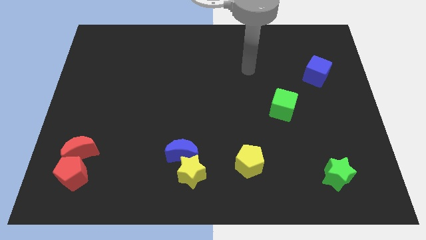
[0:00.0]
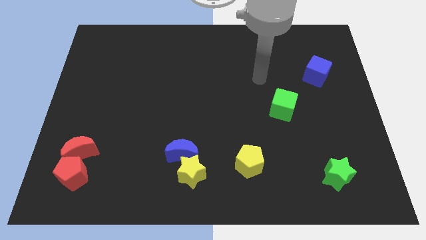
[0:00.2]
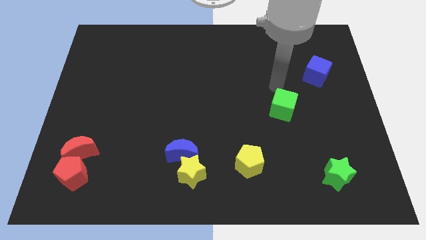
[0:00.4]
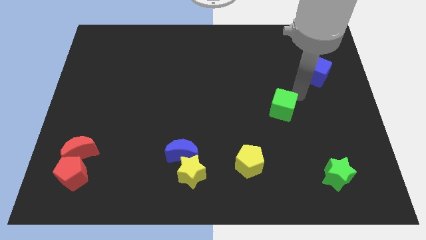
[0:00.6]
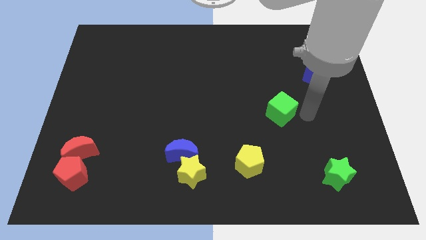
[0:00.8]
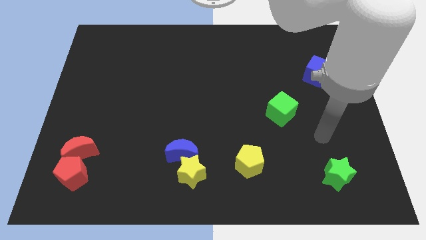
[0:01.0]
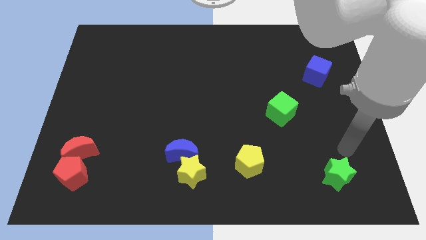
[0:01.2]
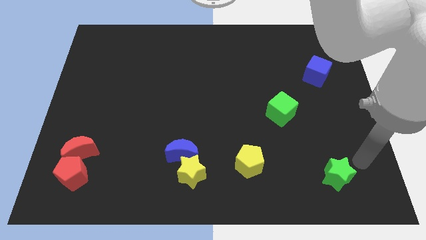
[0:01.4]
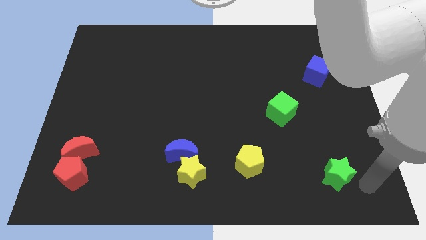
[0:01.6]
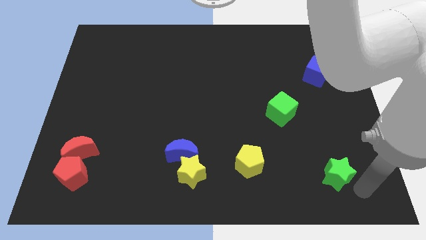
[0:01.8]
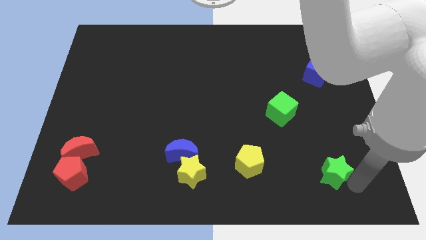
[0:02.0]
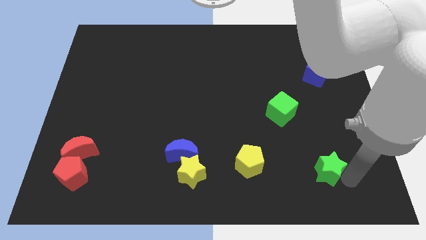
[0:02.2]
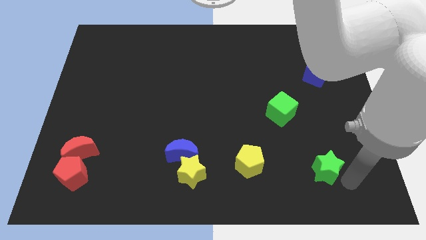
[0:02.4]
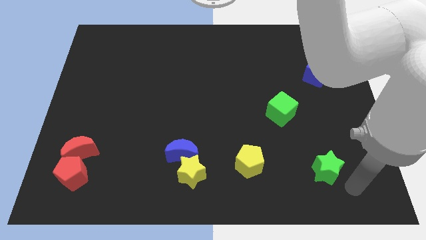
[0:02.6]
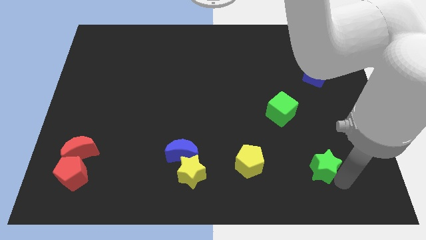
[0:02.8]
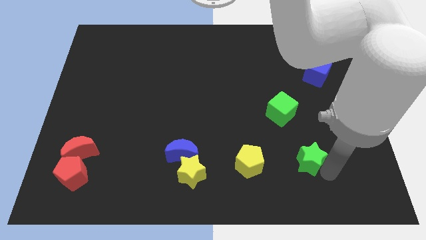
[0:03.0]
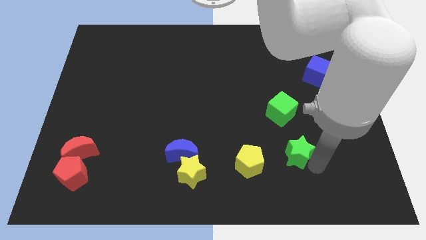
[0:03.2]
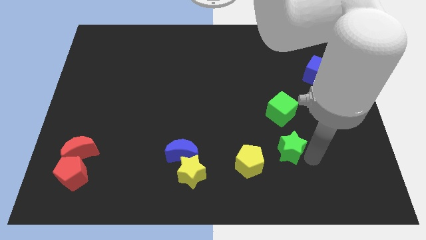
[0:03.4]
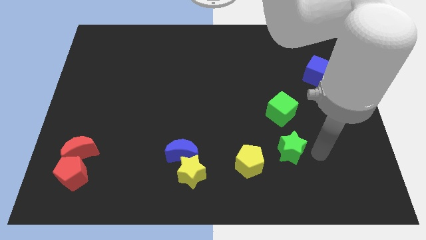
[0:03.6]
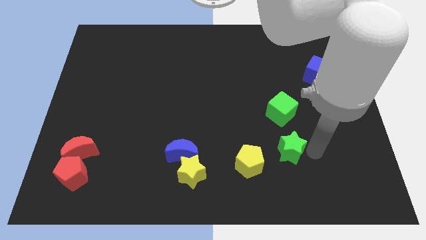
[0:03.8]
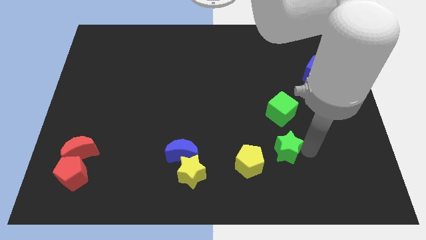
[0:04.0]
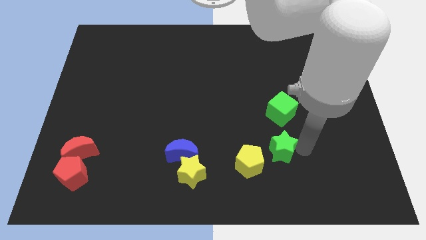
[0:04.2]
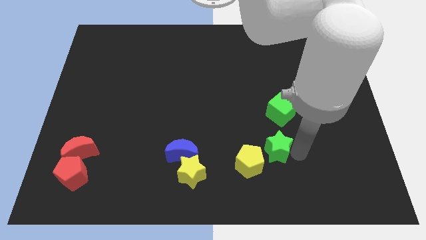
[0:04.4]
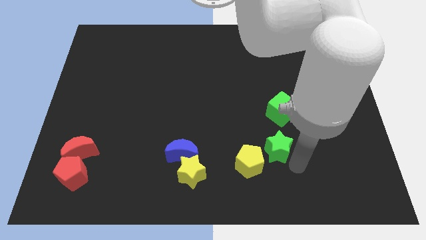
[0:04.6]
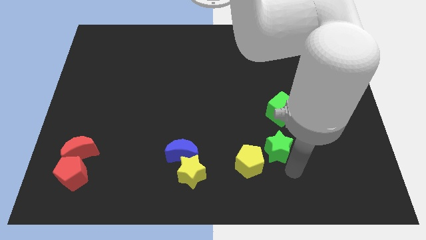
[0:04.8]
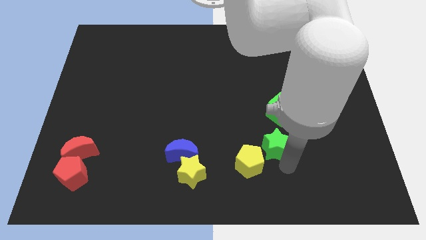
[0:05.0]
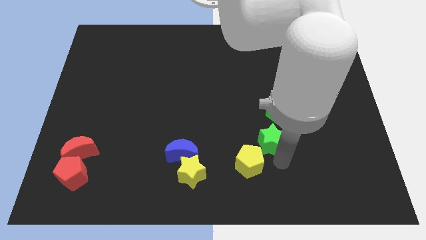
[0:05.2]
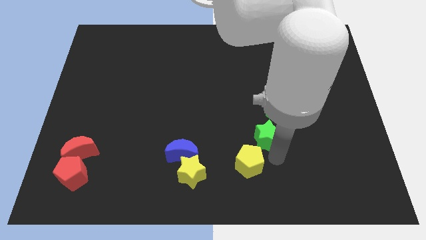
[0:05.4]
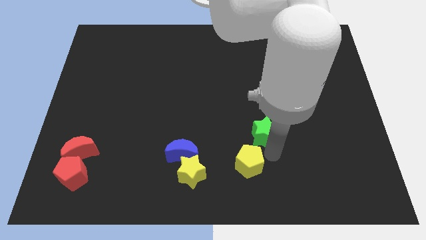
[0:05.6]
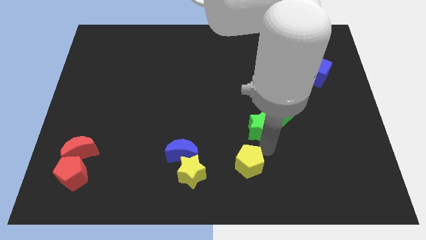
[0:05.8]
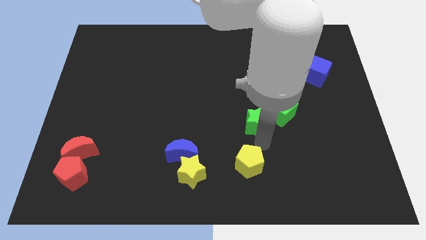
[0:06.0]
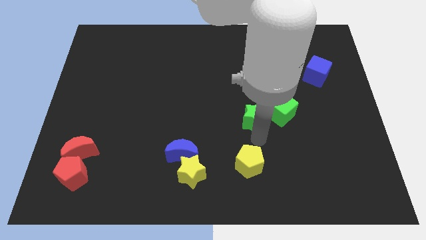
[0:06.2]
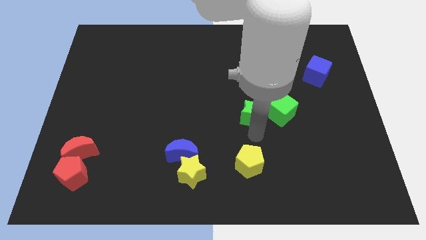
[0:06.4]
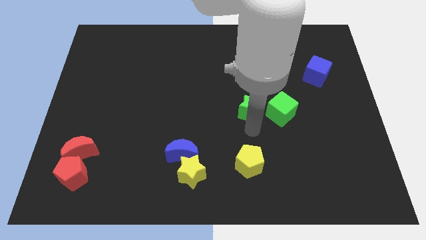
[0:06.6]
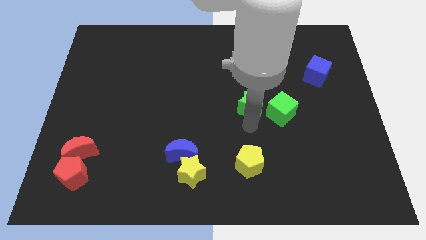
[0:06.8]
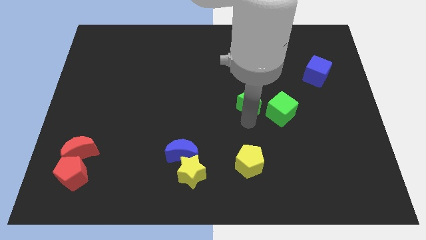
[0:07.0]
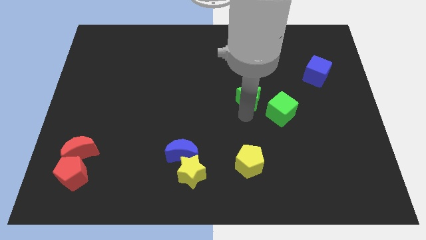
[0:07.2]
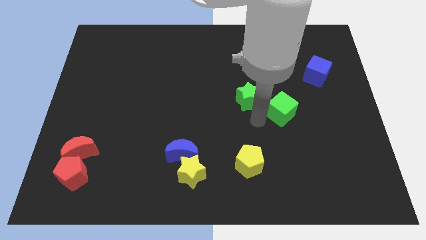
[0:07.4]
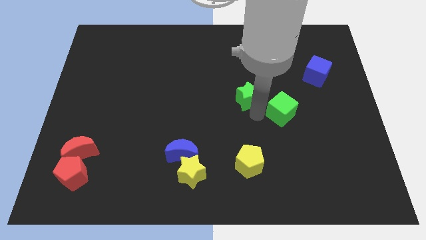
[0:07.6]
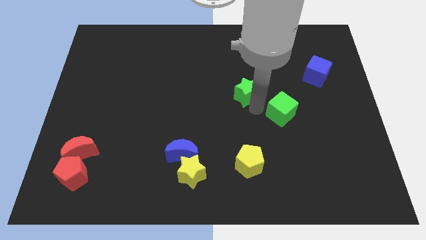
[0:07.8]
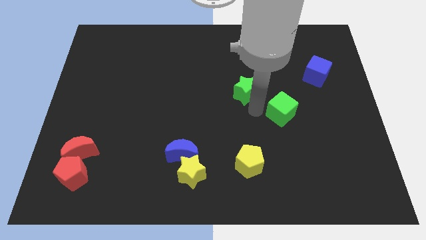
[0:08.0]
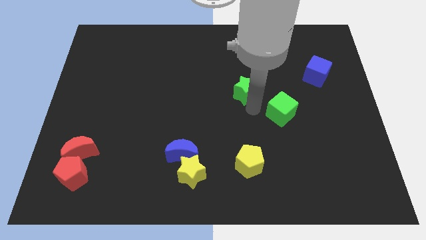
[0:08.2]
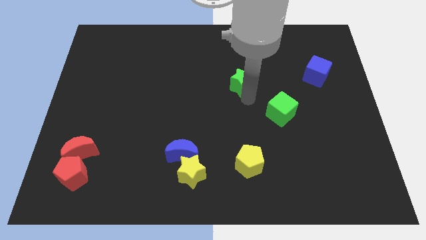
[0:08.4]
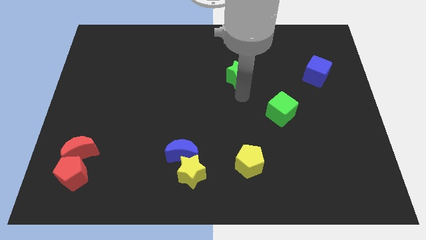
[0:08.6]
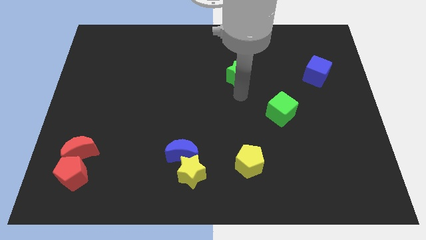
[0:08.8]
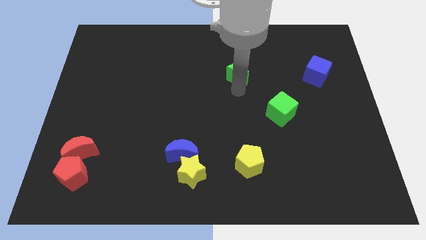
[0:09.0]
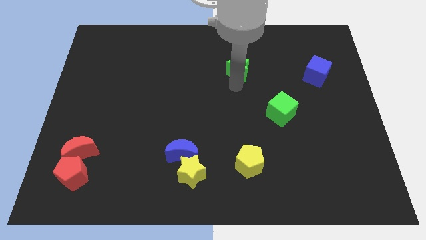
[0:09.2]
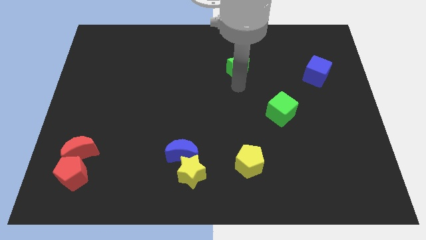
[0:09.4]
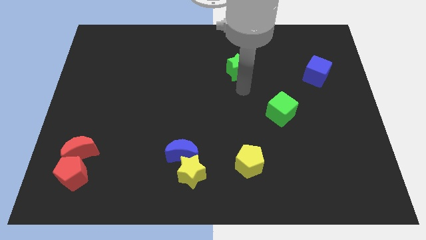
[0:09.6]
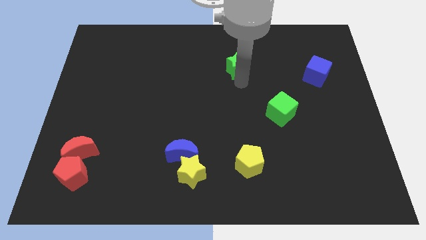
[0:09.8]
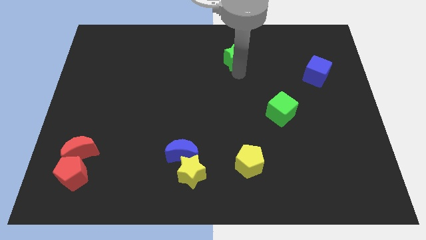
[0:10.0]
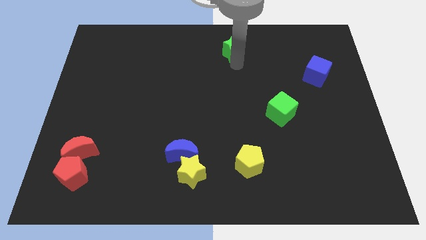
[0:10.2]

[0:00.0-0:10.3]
push the green star to the towards your base

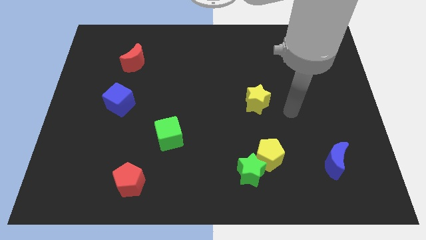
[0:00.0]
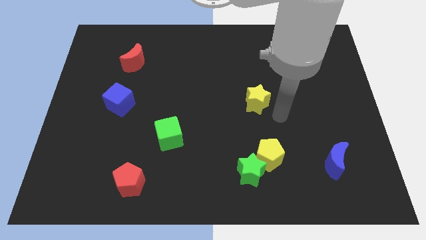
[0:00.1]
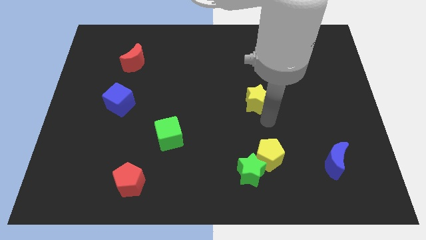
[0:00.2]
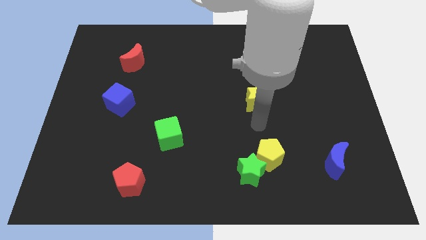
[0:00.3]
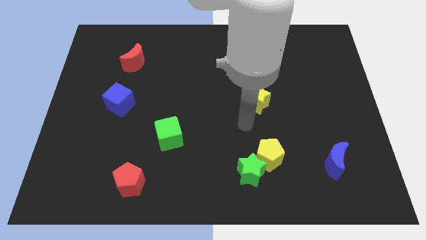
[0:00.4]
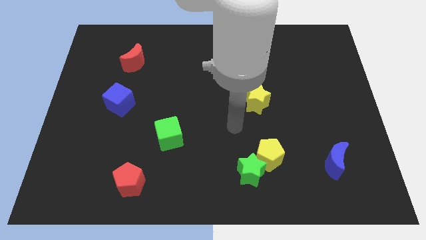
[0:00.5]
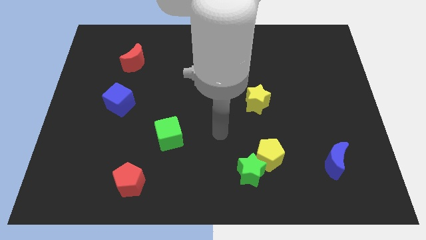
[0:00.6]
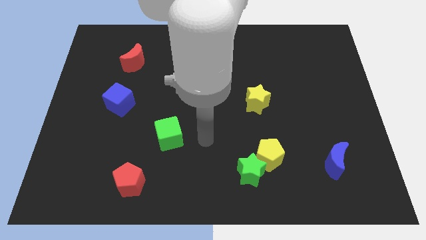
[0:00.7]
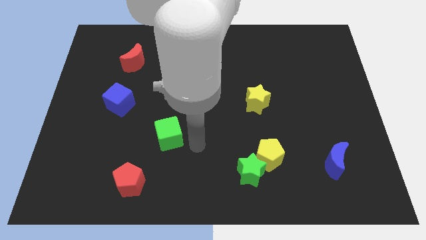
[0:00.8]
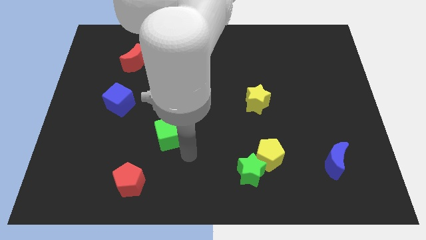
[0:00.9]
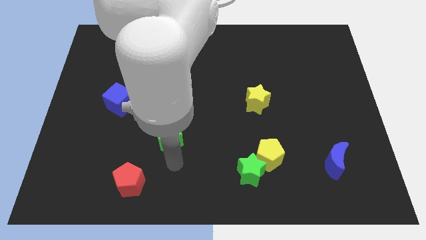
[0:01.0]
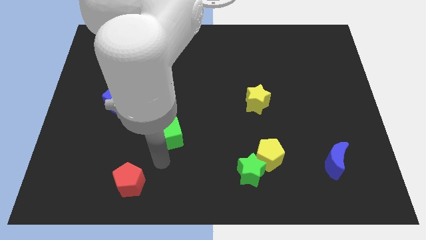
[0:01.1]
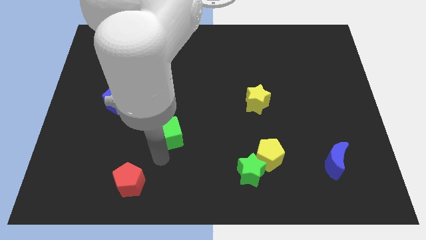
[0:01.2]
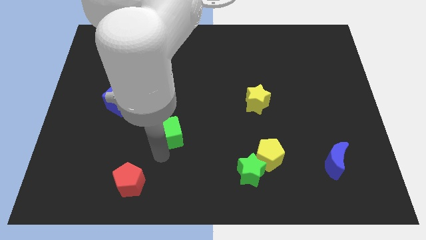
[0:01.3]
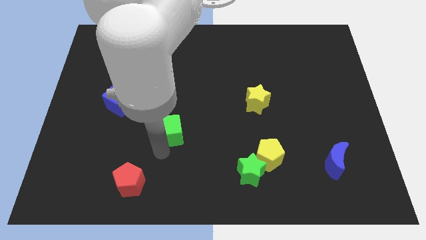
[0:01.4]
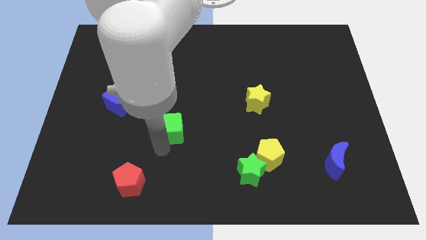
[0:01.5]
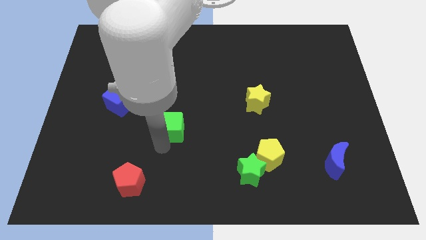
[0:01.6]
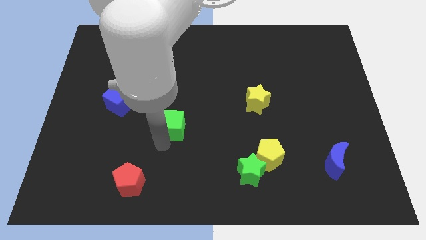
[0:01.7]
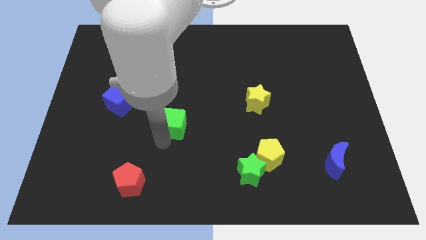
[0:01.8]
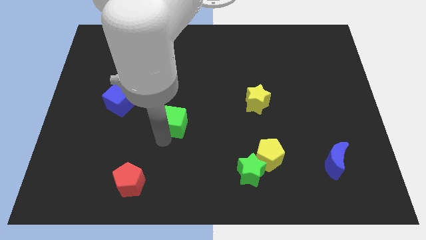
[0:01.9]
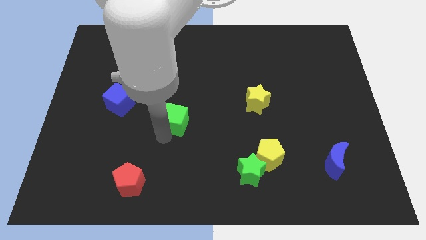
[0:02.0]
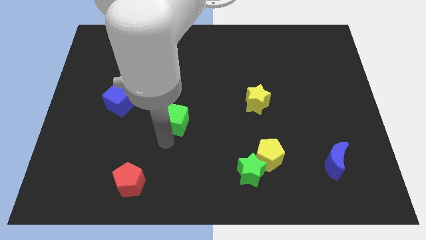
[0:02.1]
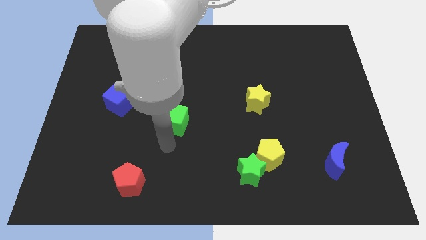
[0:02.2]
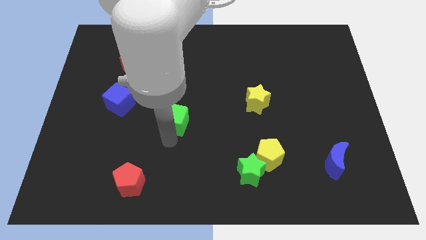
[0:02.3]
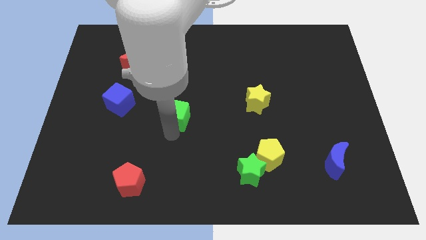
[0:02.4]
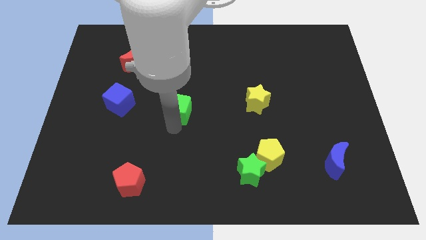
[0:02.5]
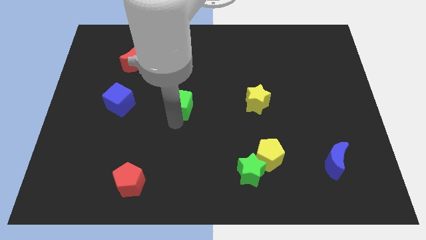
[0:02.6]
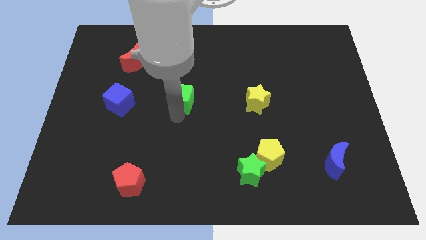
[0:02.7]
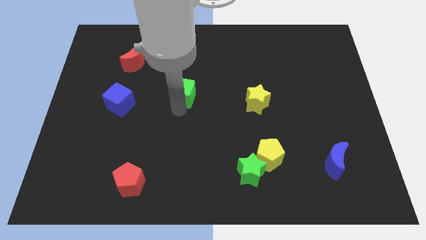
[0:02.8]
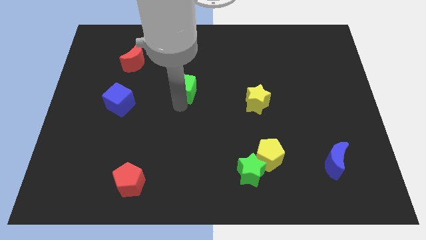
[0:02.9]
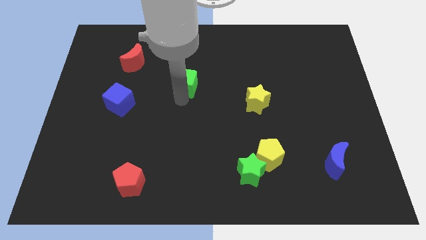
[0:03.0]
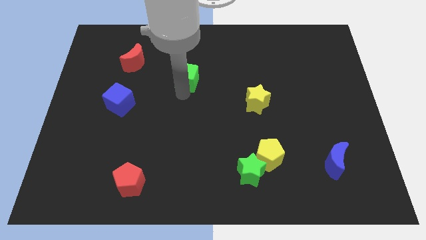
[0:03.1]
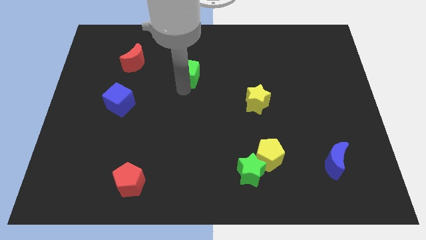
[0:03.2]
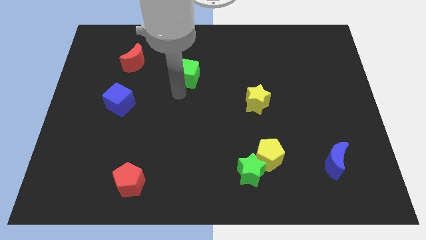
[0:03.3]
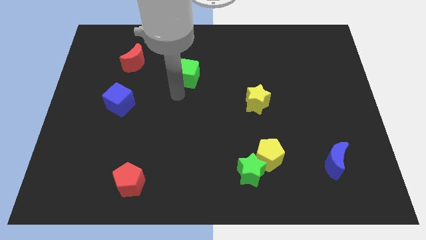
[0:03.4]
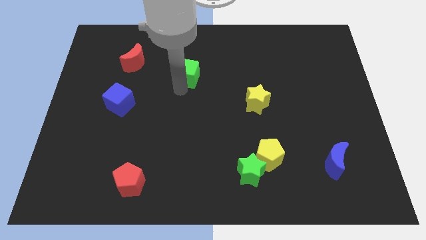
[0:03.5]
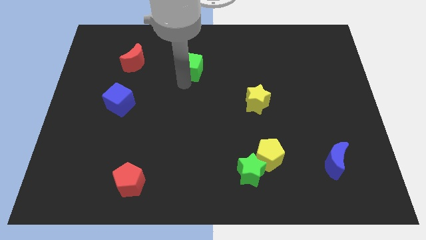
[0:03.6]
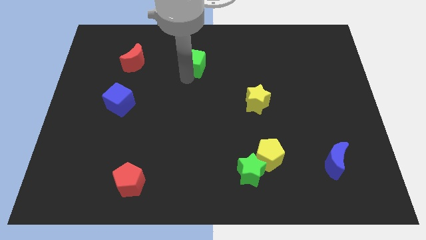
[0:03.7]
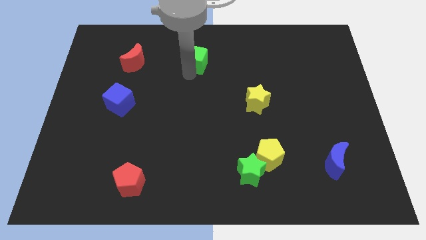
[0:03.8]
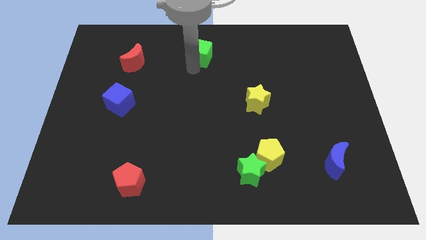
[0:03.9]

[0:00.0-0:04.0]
move the green cube to the top
